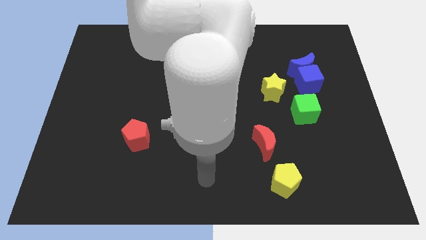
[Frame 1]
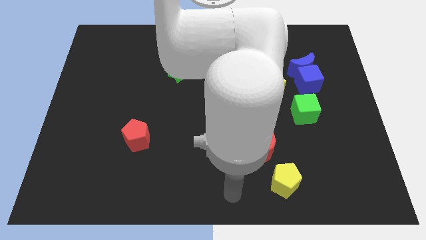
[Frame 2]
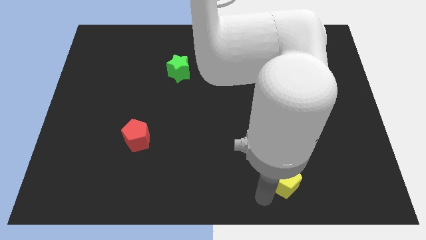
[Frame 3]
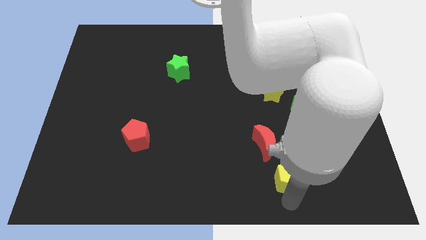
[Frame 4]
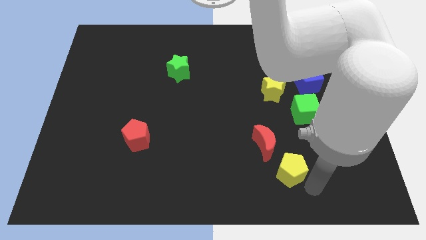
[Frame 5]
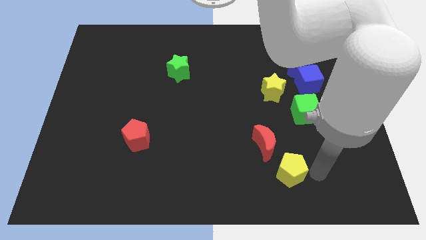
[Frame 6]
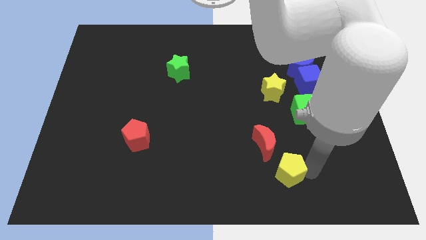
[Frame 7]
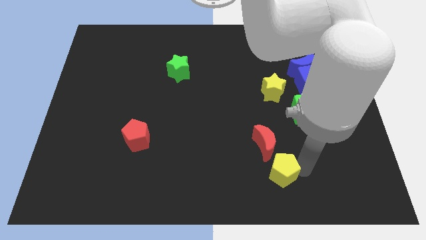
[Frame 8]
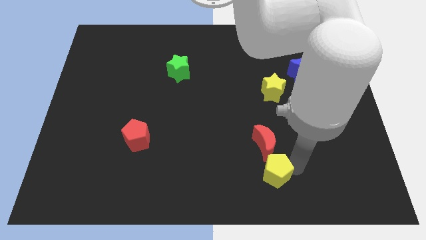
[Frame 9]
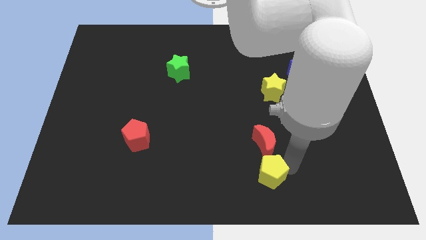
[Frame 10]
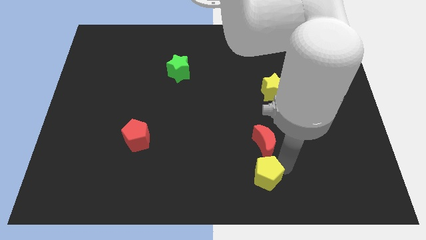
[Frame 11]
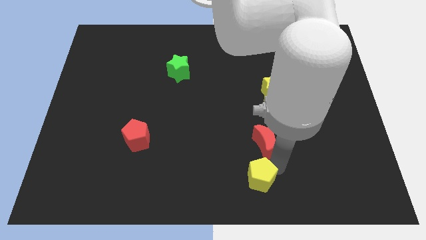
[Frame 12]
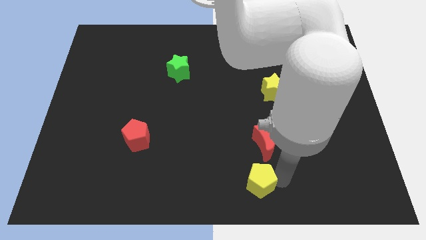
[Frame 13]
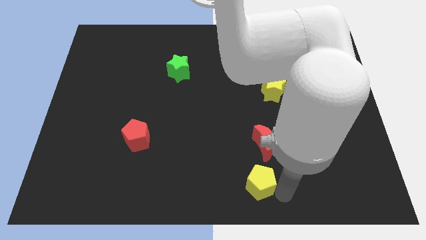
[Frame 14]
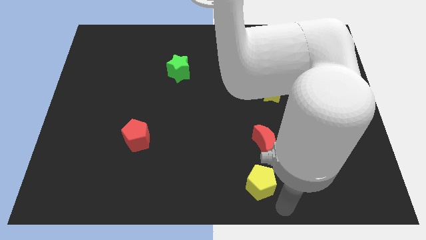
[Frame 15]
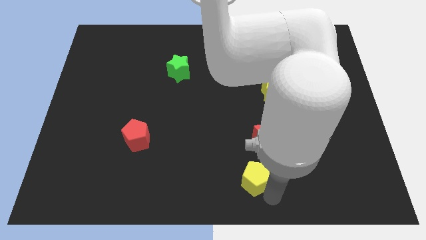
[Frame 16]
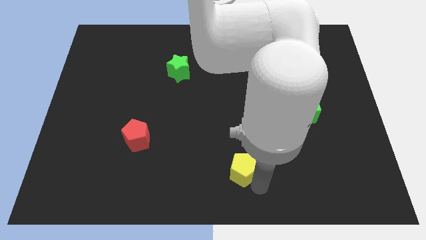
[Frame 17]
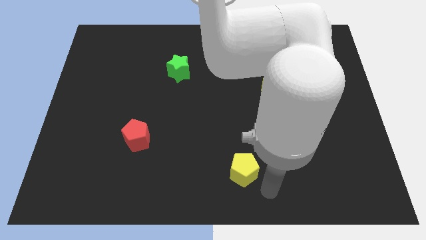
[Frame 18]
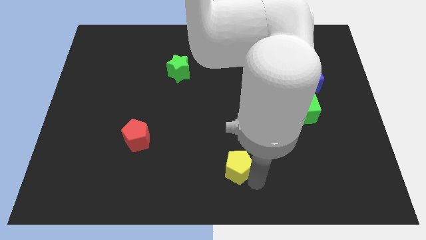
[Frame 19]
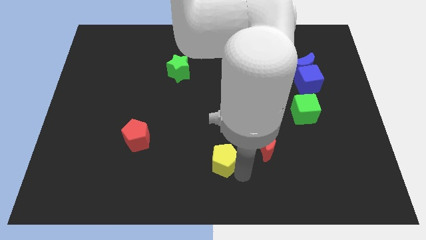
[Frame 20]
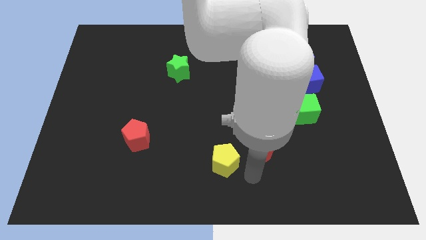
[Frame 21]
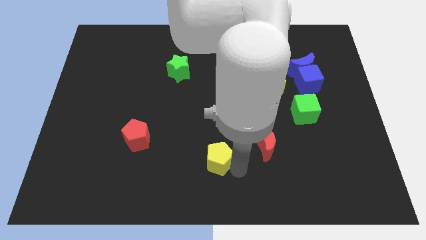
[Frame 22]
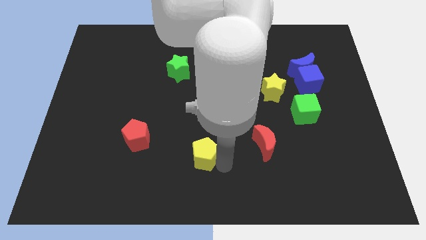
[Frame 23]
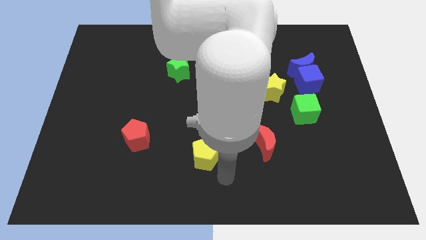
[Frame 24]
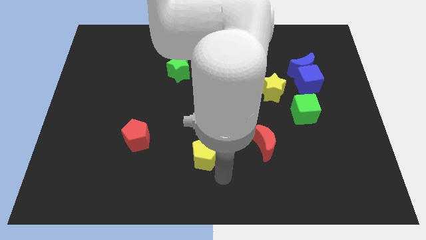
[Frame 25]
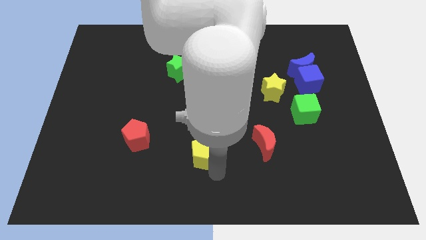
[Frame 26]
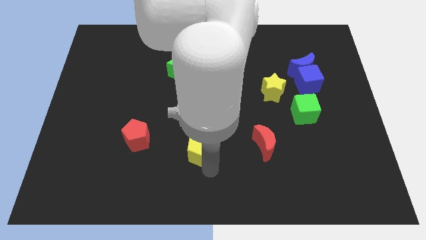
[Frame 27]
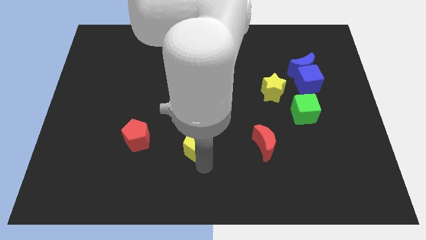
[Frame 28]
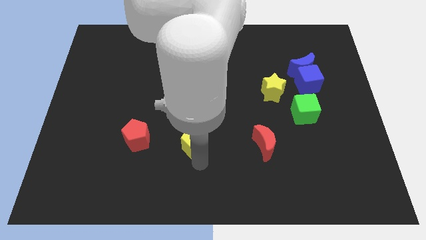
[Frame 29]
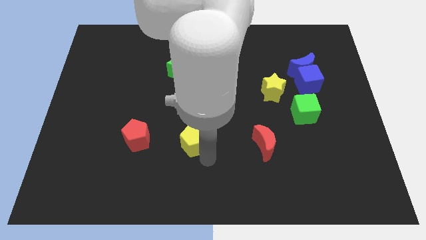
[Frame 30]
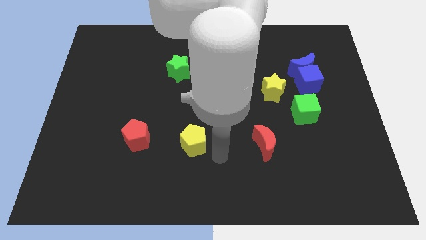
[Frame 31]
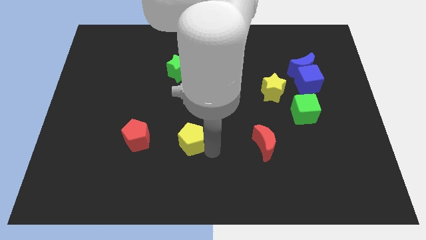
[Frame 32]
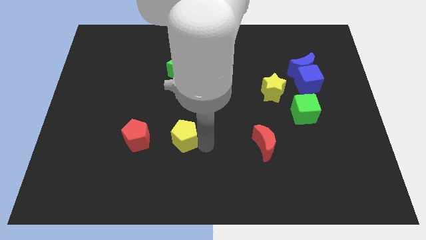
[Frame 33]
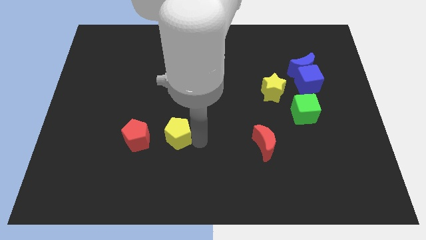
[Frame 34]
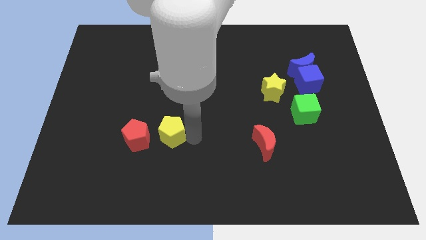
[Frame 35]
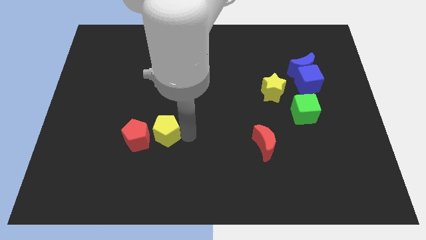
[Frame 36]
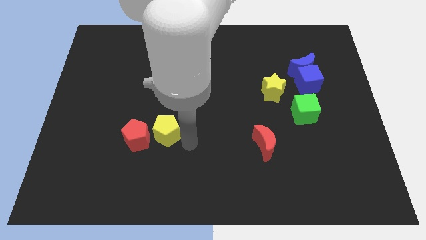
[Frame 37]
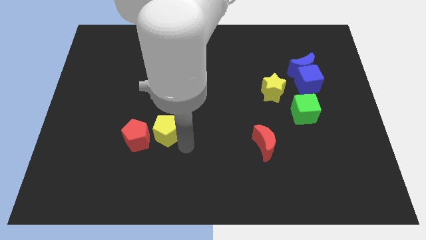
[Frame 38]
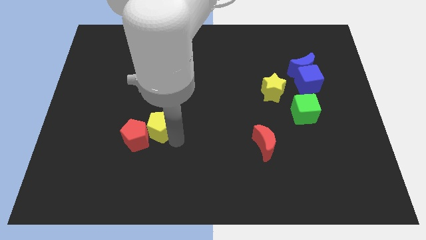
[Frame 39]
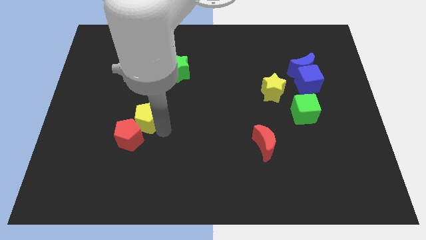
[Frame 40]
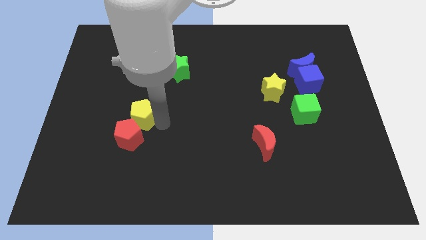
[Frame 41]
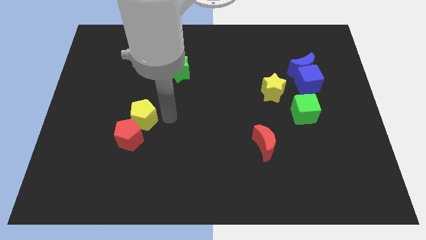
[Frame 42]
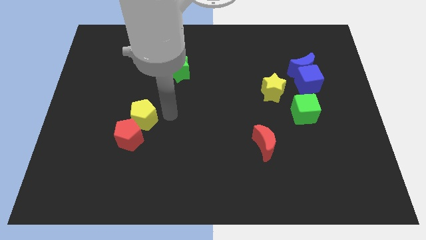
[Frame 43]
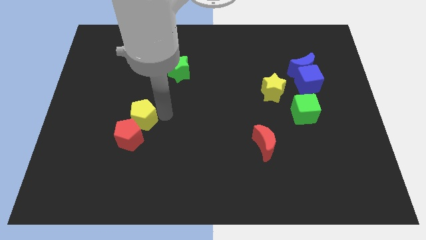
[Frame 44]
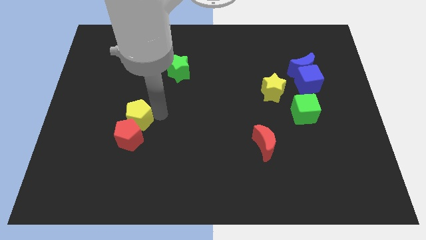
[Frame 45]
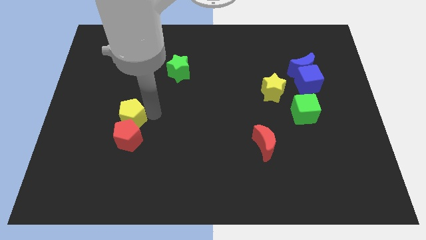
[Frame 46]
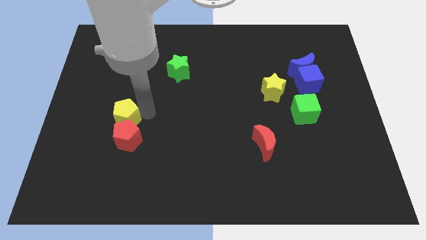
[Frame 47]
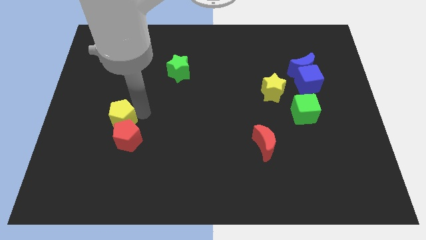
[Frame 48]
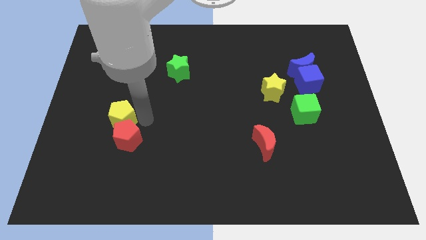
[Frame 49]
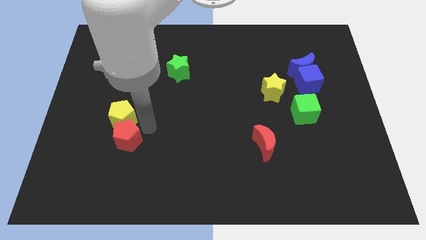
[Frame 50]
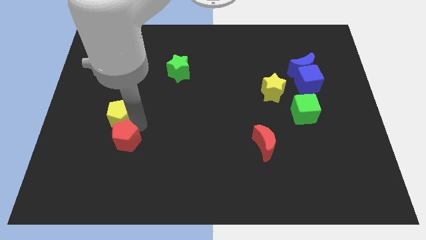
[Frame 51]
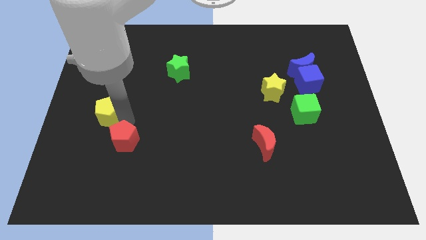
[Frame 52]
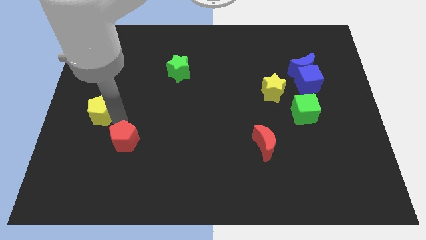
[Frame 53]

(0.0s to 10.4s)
put the yellow pentagon to the left side
